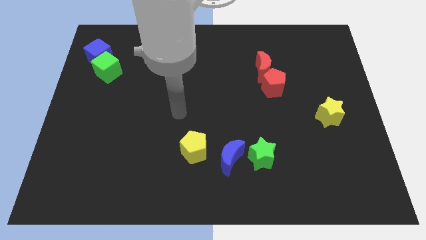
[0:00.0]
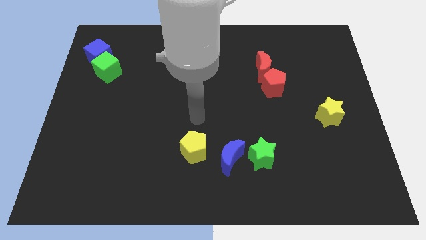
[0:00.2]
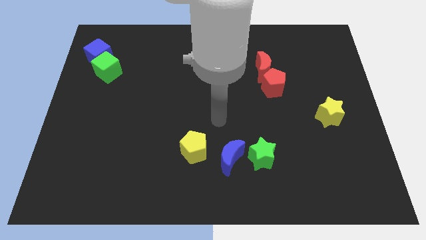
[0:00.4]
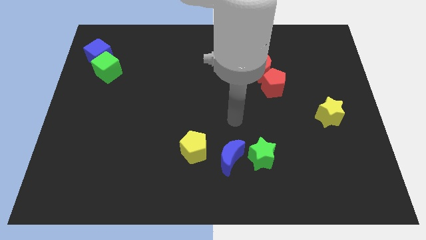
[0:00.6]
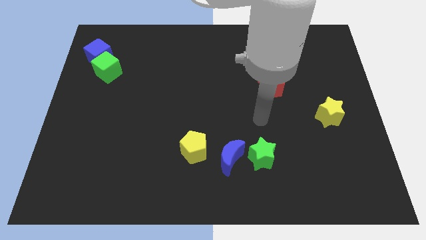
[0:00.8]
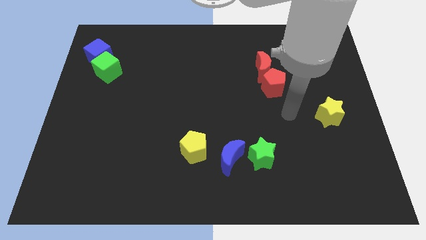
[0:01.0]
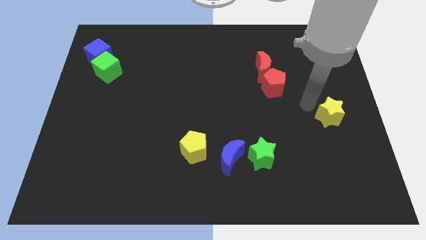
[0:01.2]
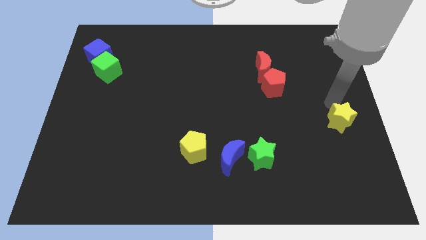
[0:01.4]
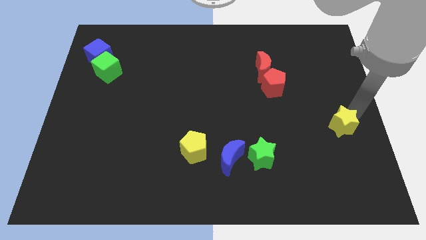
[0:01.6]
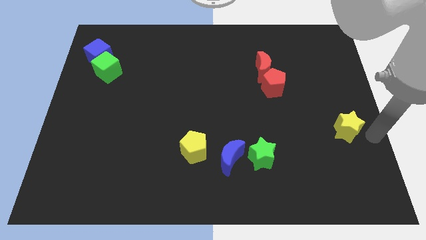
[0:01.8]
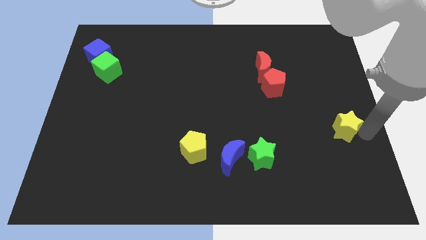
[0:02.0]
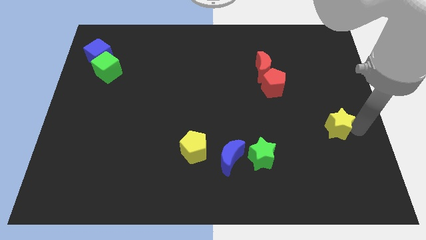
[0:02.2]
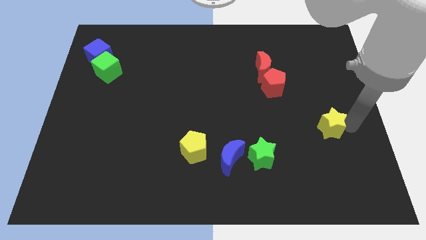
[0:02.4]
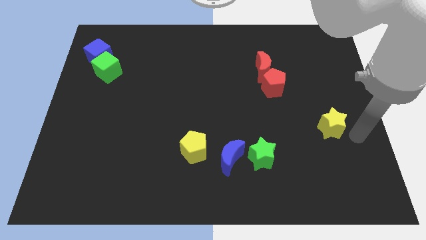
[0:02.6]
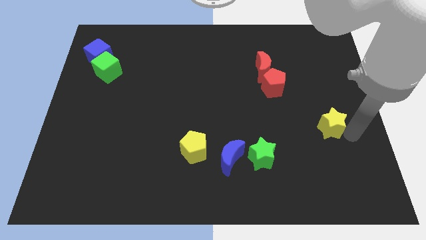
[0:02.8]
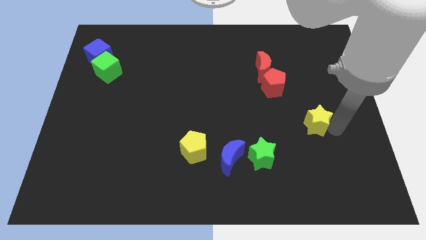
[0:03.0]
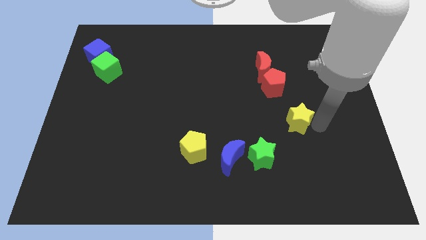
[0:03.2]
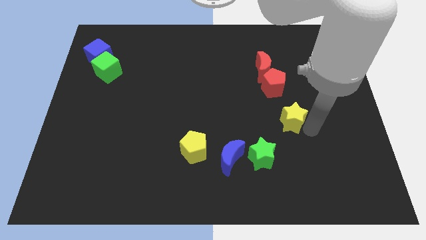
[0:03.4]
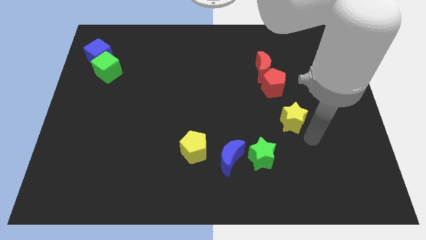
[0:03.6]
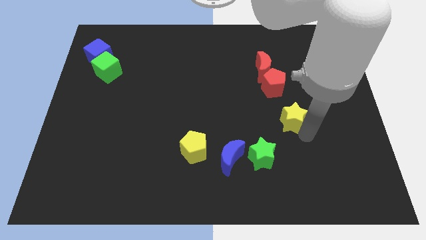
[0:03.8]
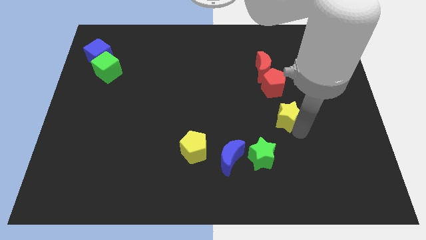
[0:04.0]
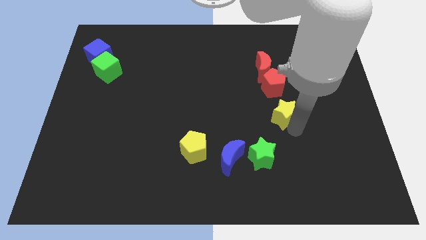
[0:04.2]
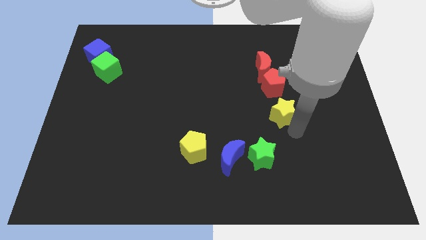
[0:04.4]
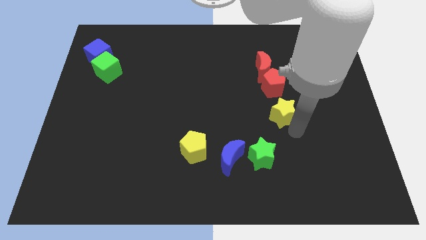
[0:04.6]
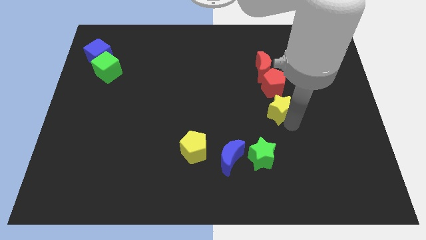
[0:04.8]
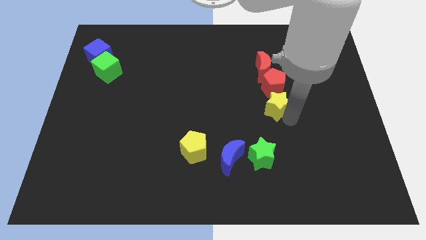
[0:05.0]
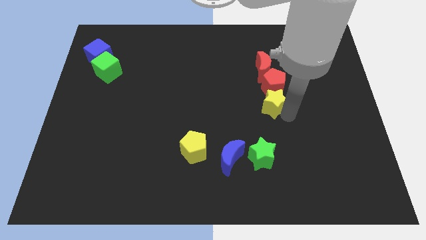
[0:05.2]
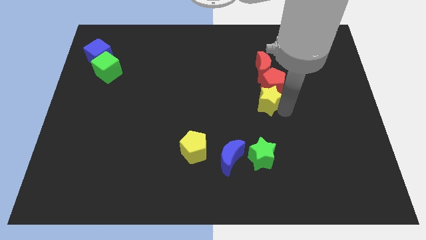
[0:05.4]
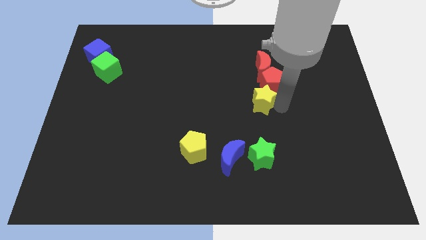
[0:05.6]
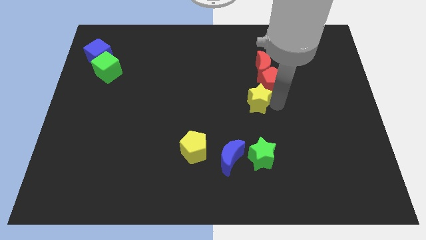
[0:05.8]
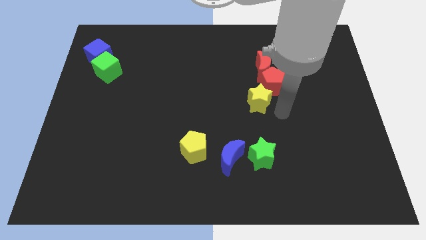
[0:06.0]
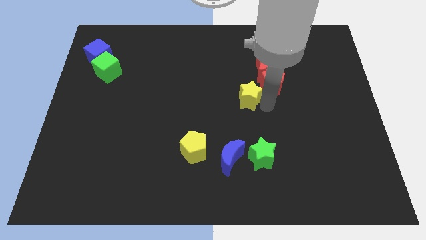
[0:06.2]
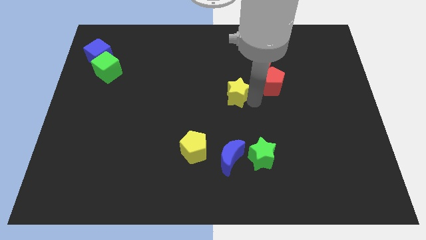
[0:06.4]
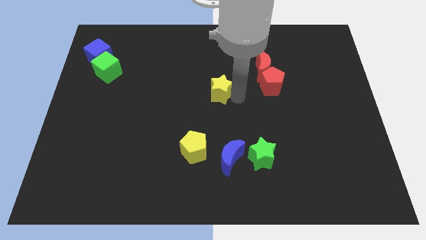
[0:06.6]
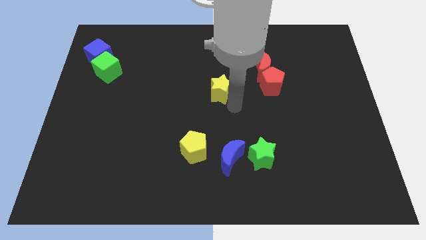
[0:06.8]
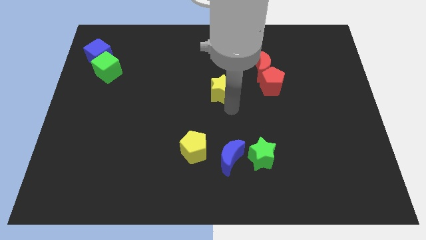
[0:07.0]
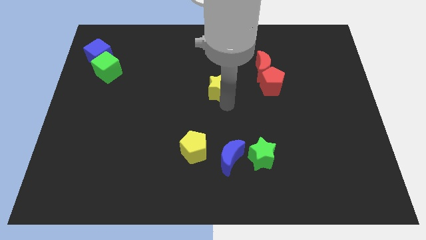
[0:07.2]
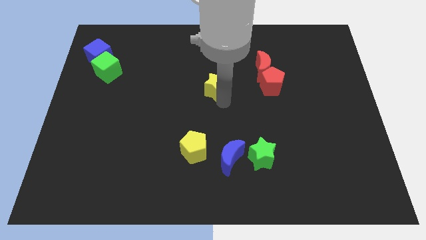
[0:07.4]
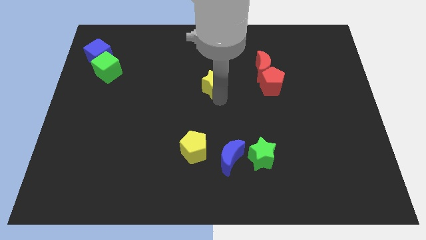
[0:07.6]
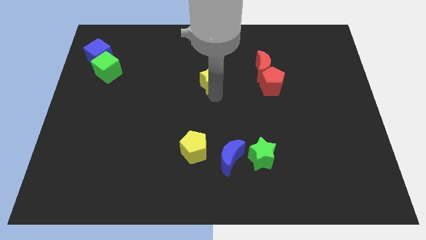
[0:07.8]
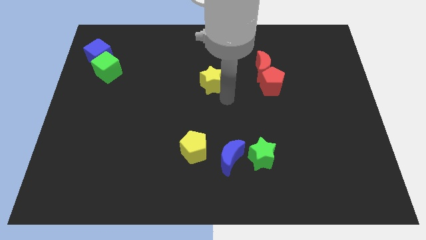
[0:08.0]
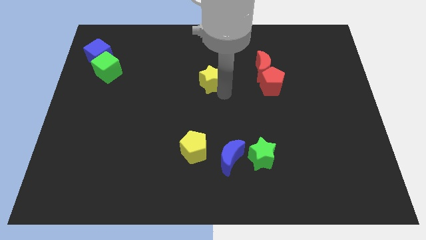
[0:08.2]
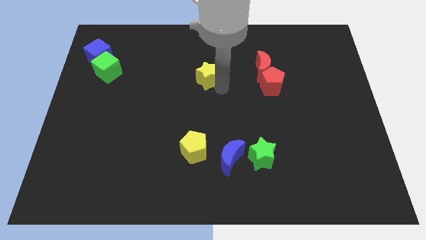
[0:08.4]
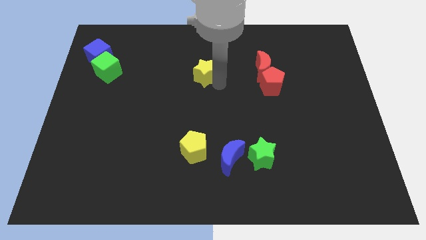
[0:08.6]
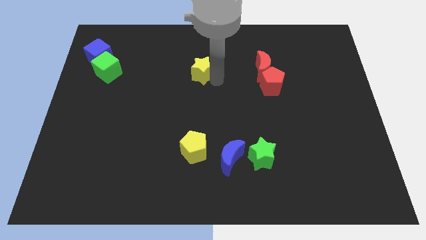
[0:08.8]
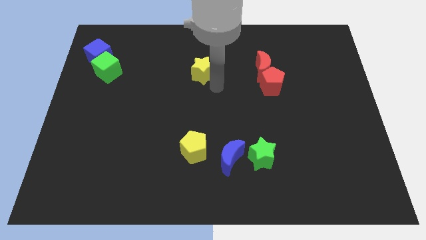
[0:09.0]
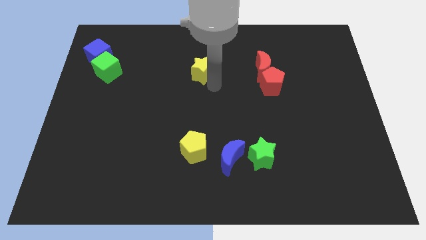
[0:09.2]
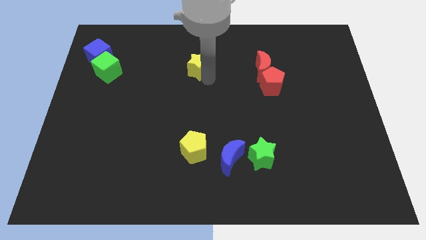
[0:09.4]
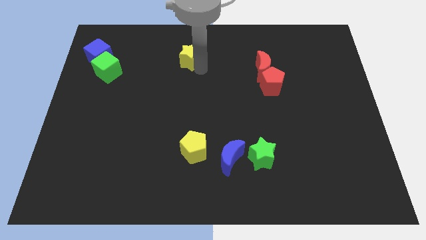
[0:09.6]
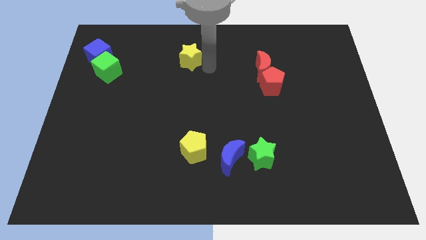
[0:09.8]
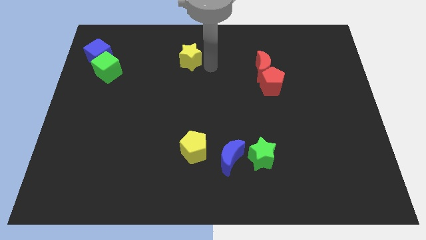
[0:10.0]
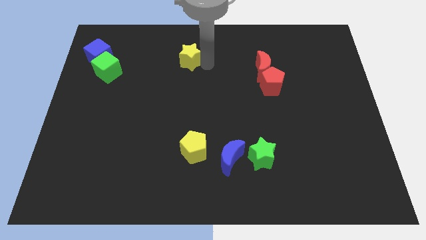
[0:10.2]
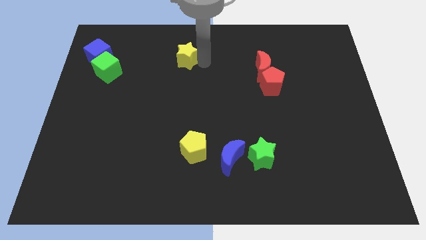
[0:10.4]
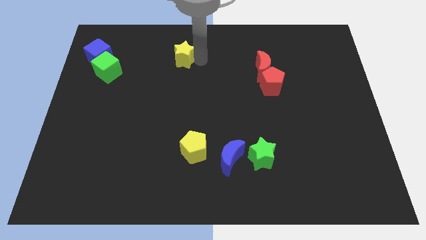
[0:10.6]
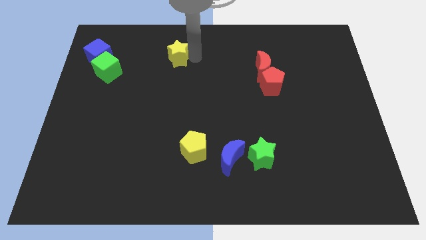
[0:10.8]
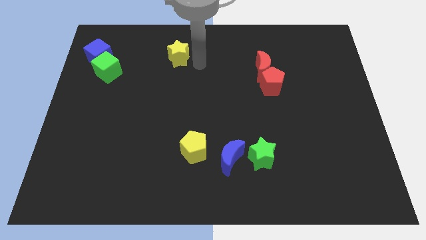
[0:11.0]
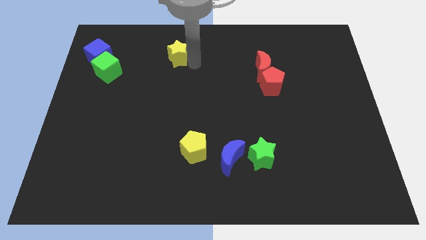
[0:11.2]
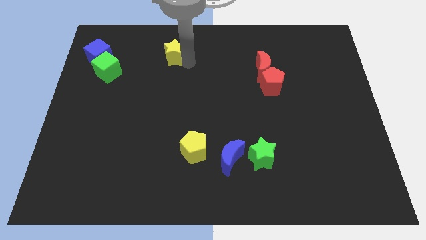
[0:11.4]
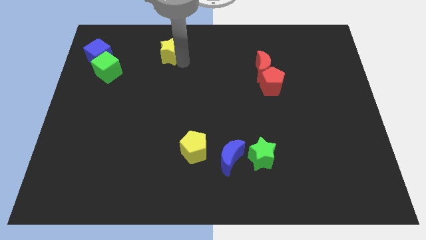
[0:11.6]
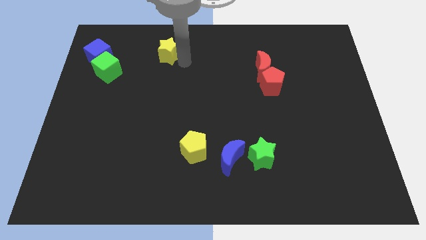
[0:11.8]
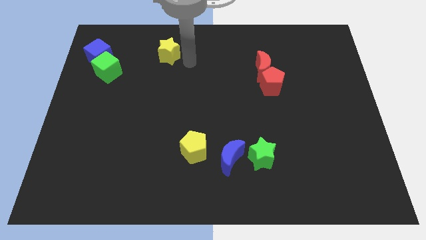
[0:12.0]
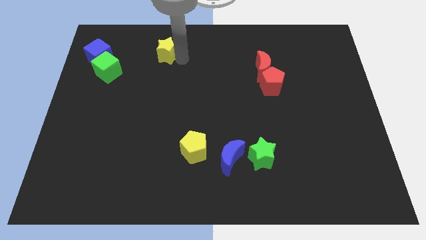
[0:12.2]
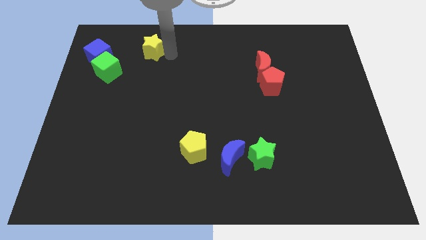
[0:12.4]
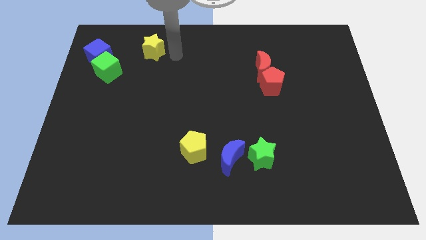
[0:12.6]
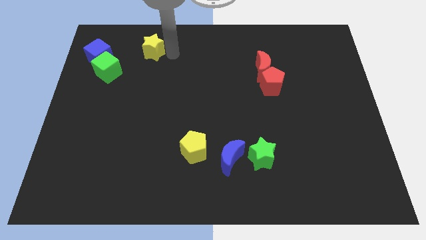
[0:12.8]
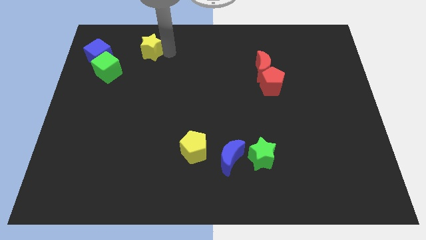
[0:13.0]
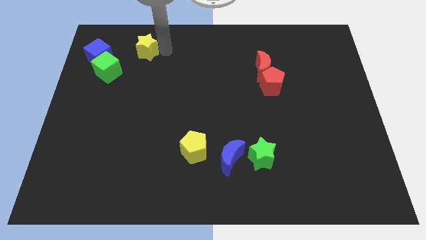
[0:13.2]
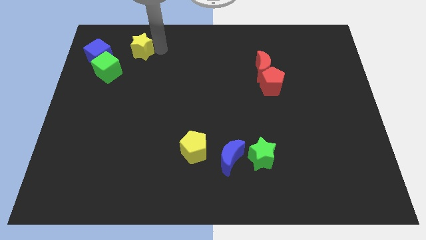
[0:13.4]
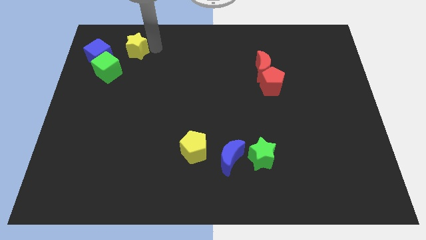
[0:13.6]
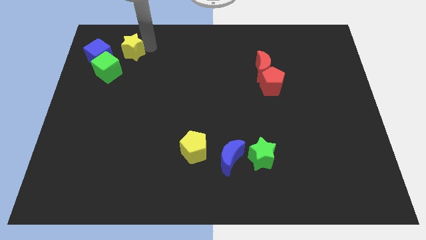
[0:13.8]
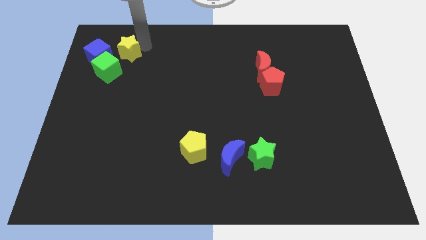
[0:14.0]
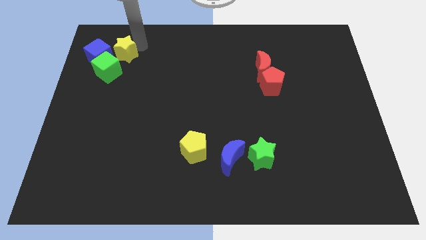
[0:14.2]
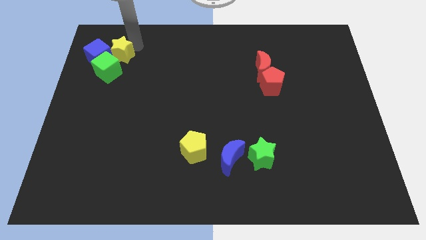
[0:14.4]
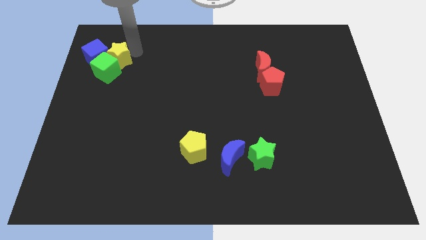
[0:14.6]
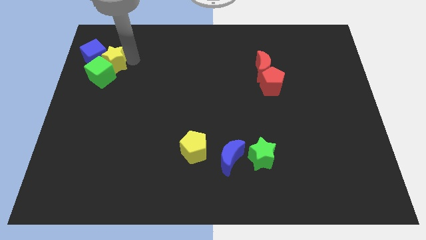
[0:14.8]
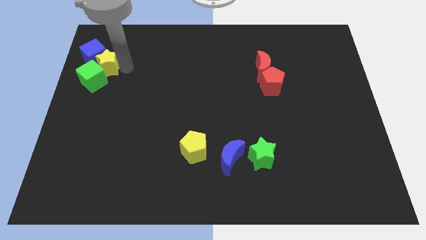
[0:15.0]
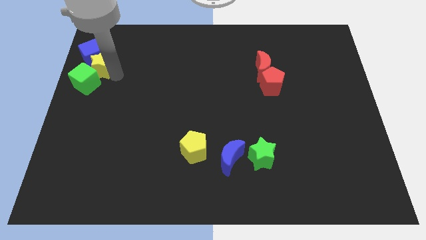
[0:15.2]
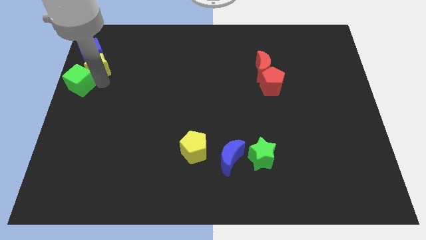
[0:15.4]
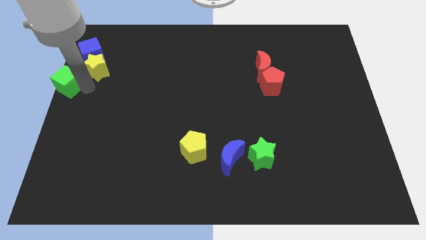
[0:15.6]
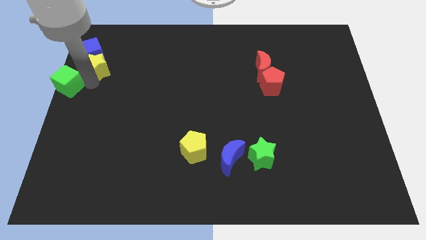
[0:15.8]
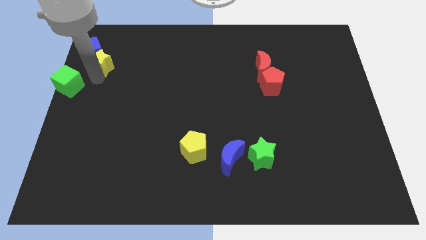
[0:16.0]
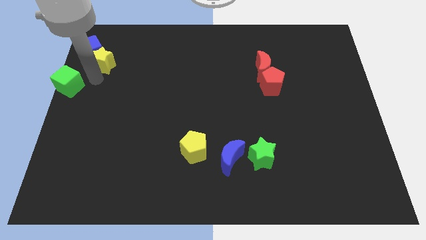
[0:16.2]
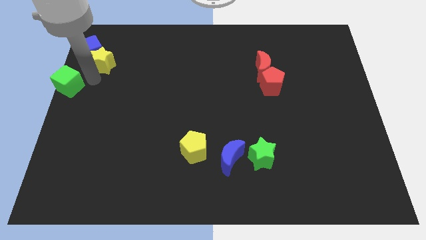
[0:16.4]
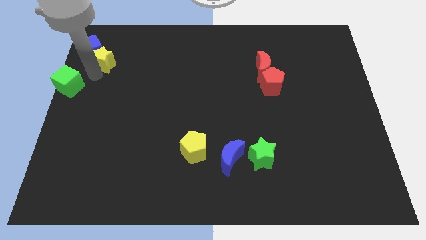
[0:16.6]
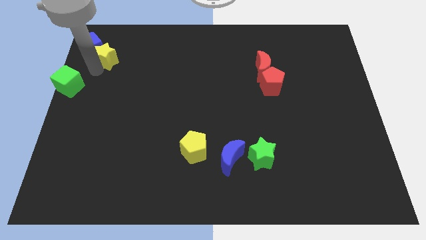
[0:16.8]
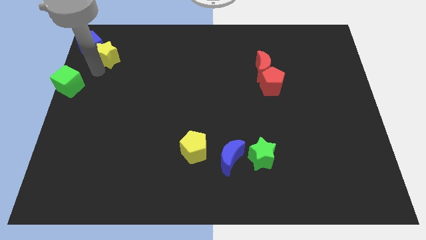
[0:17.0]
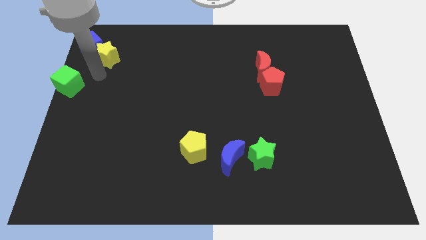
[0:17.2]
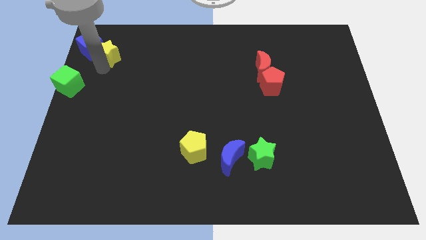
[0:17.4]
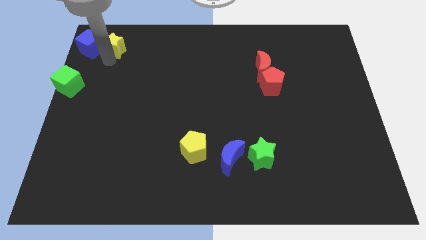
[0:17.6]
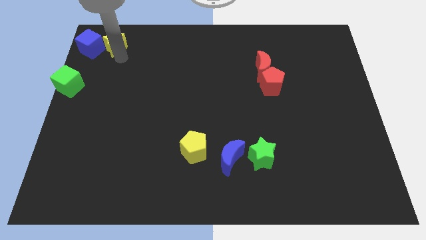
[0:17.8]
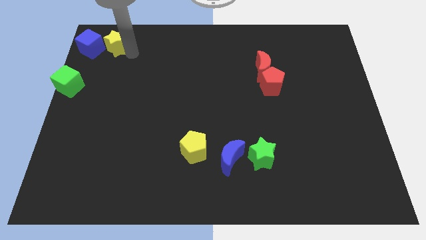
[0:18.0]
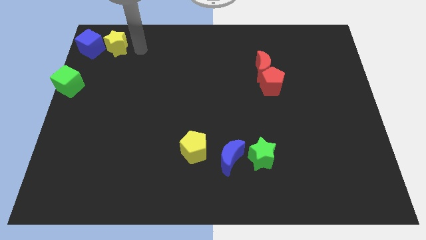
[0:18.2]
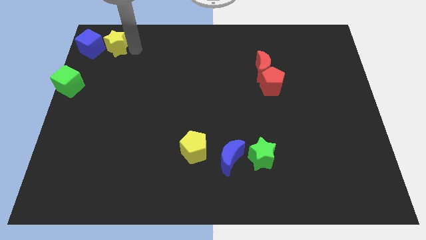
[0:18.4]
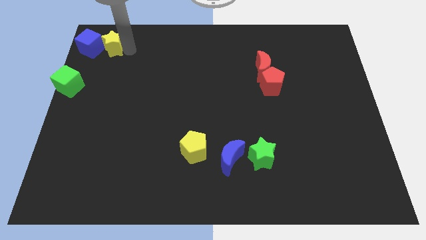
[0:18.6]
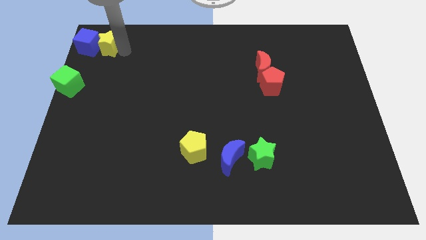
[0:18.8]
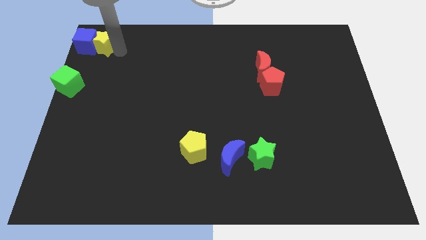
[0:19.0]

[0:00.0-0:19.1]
slide the yellow star to the top left
